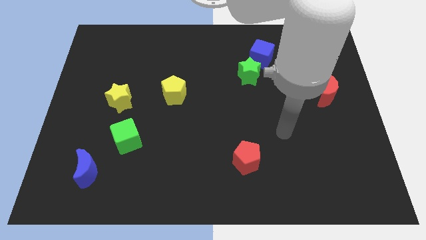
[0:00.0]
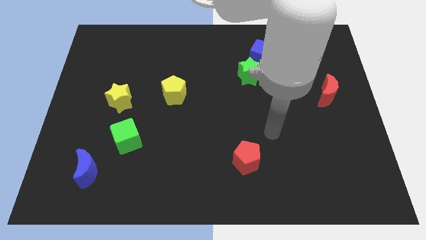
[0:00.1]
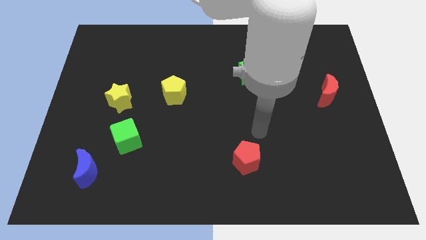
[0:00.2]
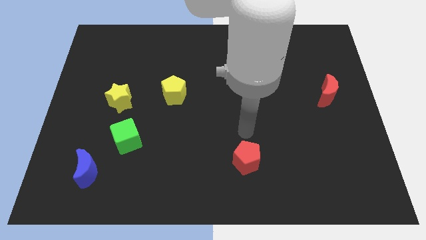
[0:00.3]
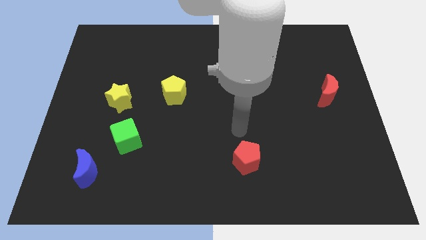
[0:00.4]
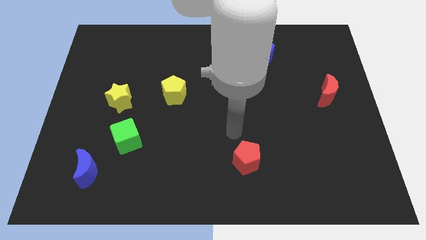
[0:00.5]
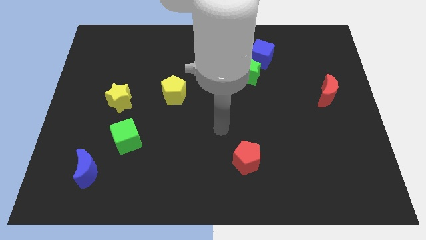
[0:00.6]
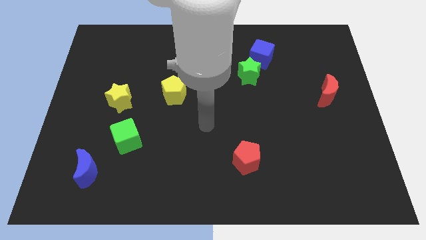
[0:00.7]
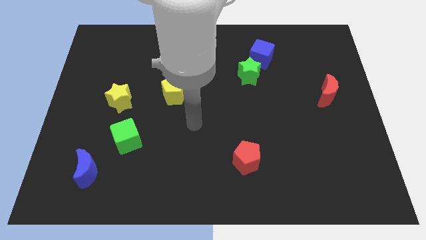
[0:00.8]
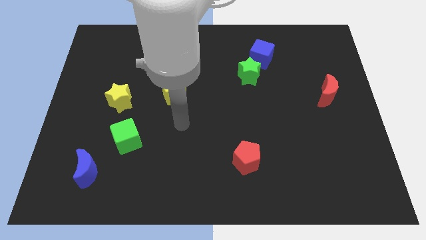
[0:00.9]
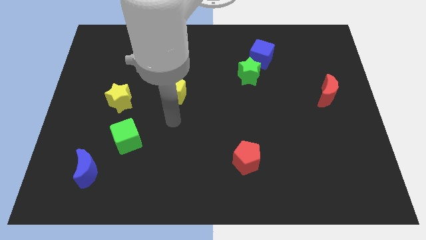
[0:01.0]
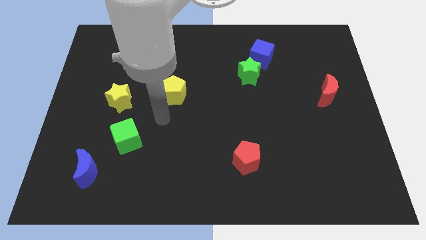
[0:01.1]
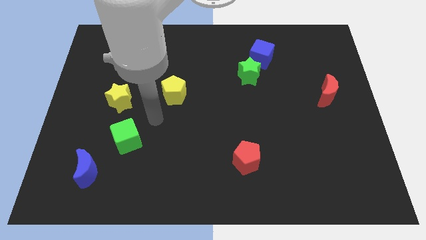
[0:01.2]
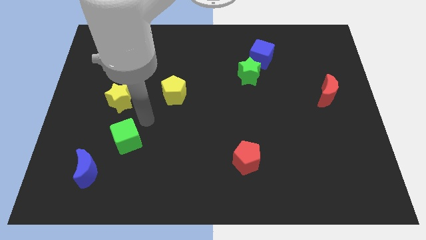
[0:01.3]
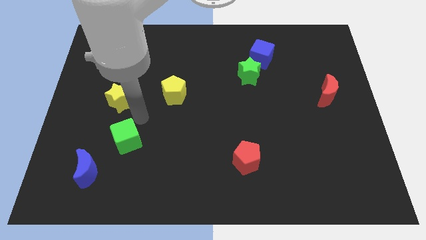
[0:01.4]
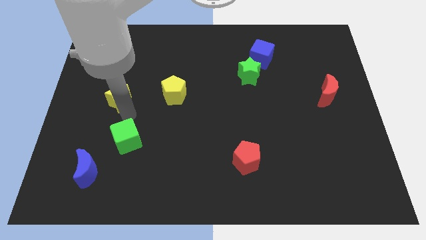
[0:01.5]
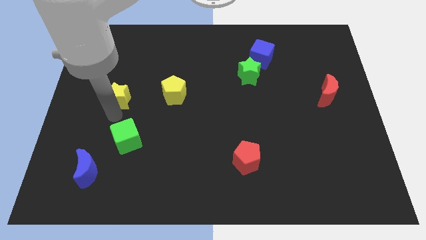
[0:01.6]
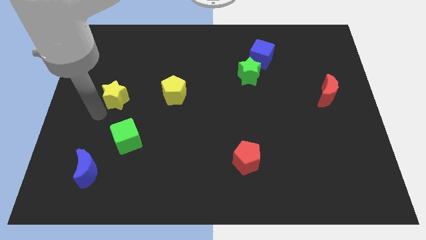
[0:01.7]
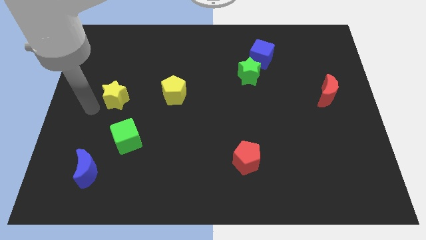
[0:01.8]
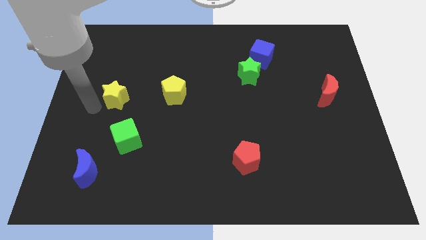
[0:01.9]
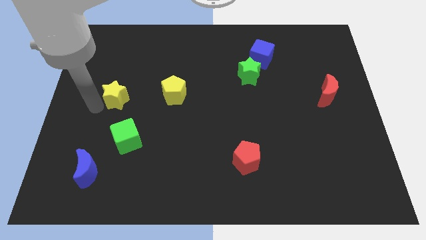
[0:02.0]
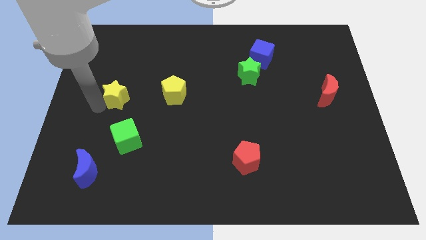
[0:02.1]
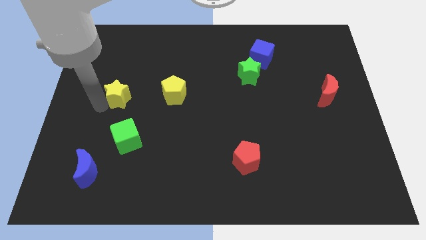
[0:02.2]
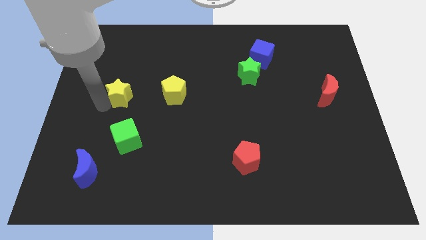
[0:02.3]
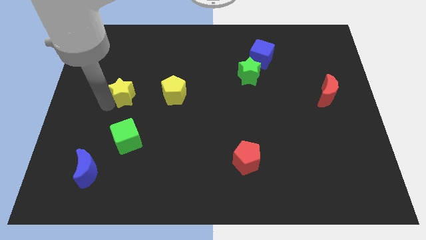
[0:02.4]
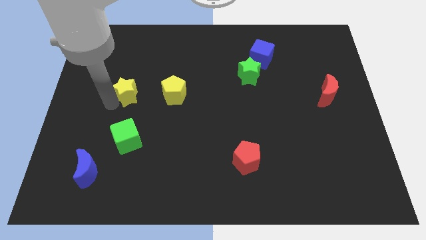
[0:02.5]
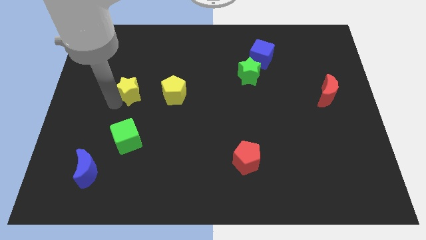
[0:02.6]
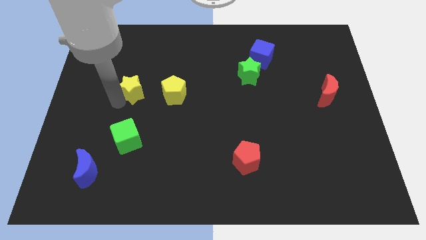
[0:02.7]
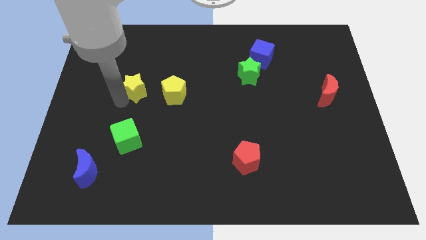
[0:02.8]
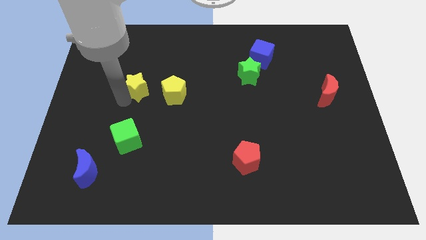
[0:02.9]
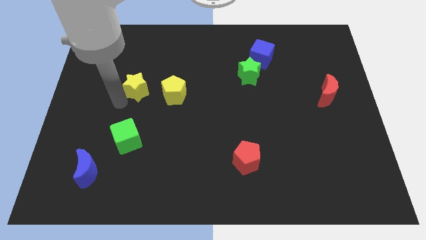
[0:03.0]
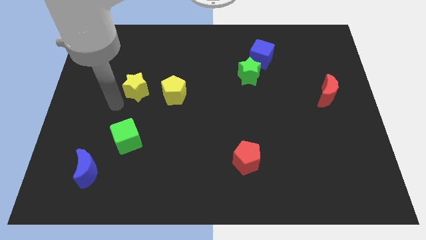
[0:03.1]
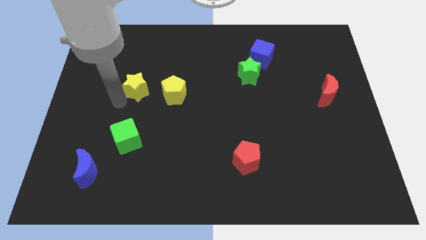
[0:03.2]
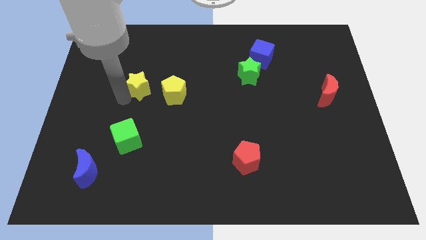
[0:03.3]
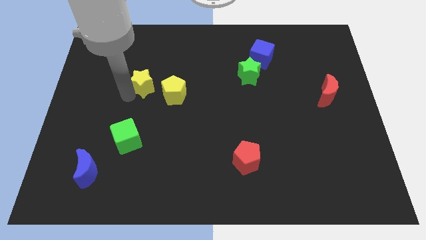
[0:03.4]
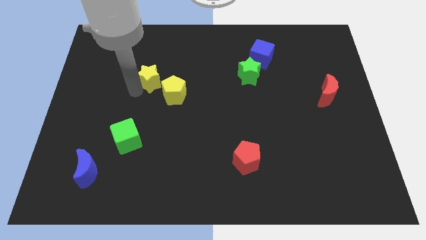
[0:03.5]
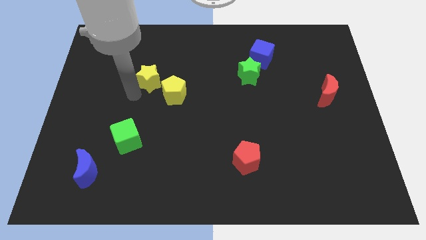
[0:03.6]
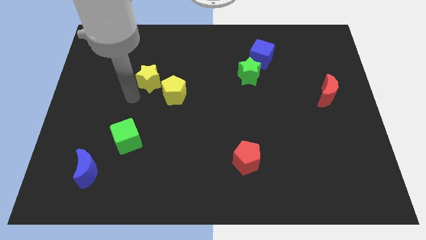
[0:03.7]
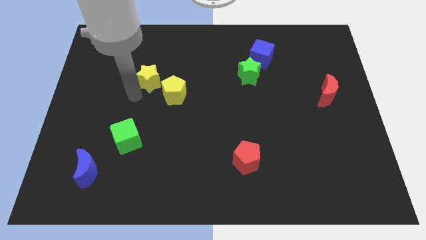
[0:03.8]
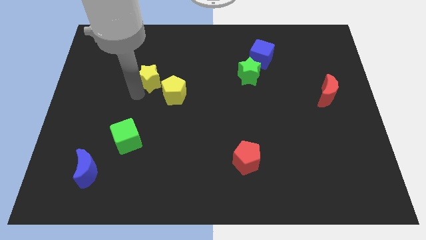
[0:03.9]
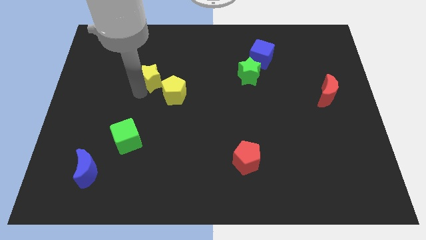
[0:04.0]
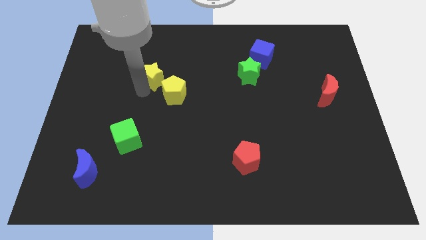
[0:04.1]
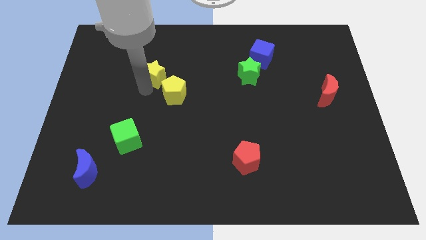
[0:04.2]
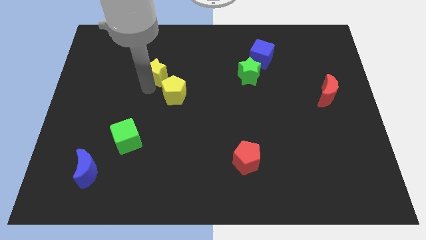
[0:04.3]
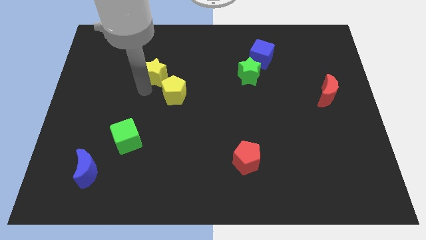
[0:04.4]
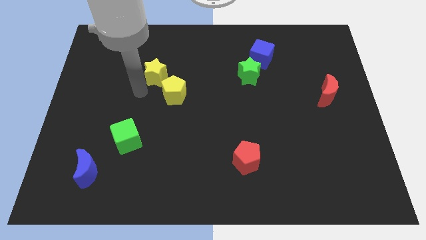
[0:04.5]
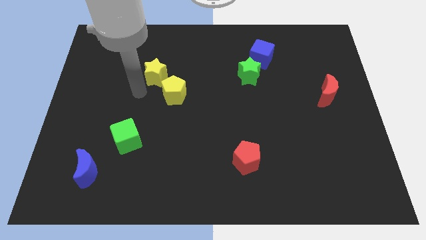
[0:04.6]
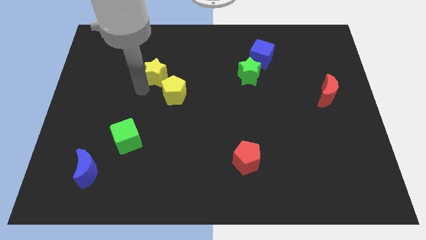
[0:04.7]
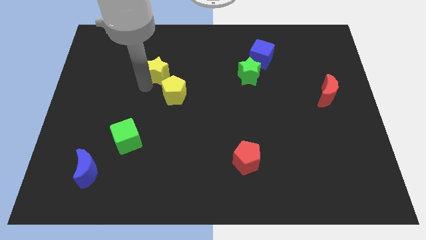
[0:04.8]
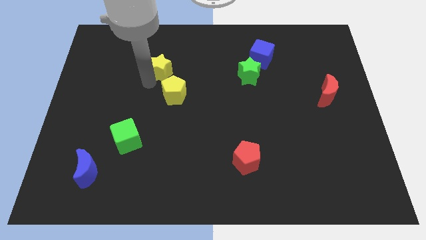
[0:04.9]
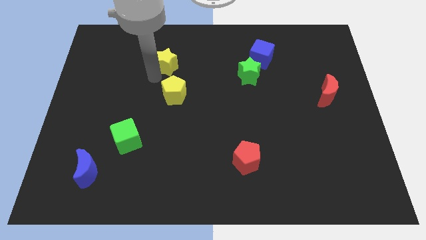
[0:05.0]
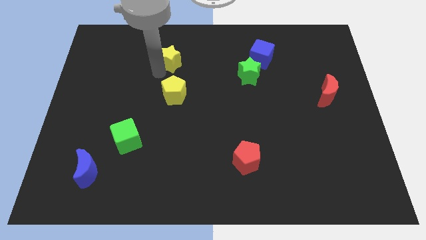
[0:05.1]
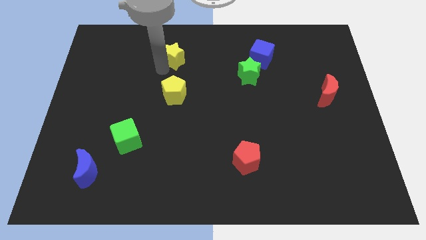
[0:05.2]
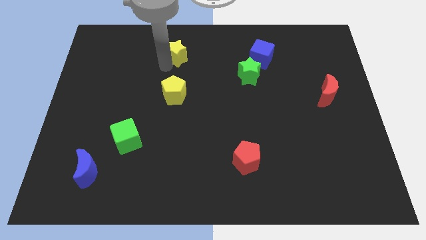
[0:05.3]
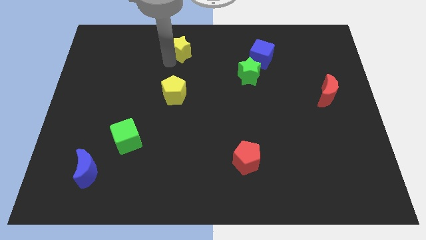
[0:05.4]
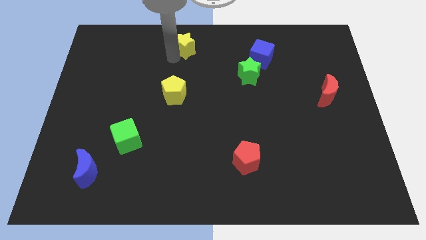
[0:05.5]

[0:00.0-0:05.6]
move the yellow star to the top side
